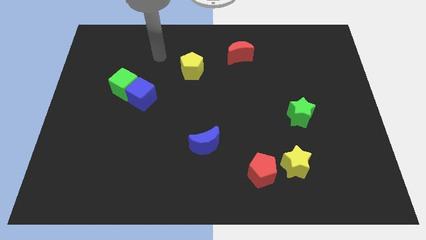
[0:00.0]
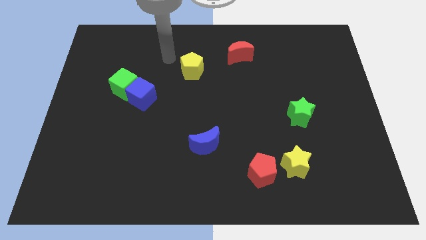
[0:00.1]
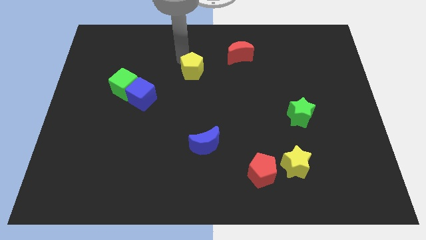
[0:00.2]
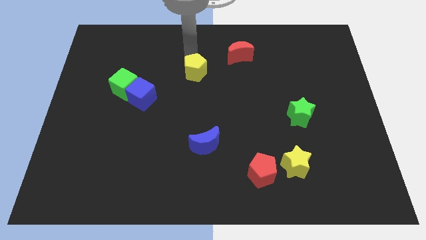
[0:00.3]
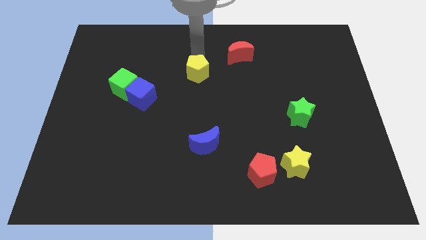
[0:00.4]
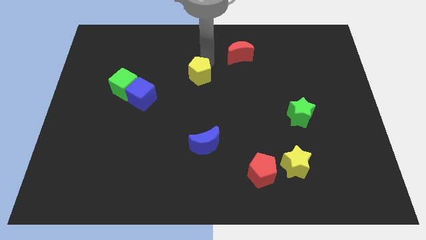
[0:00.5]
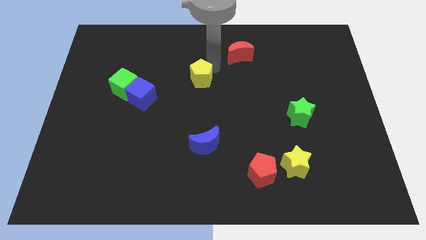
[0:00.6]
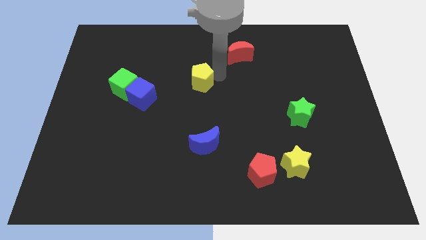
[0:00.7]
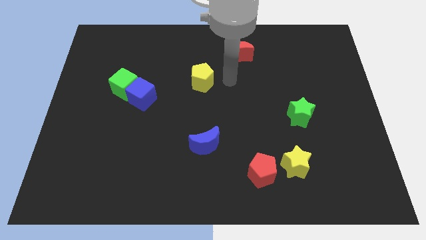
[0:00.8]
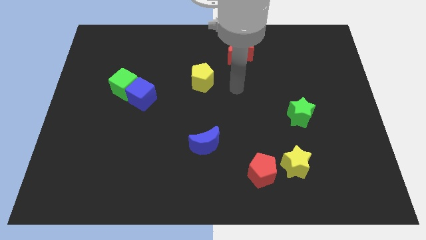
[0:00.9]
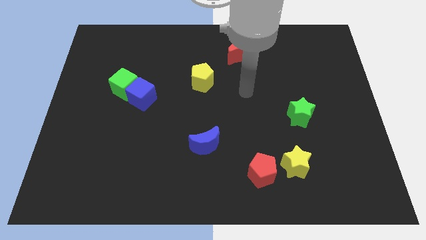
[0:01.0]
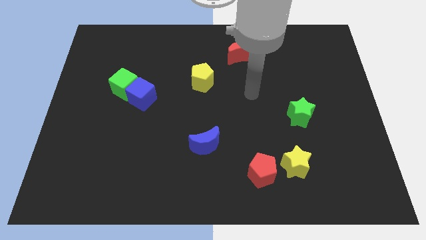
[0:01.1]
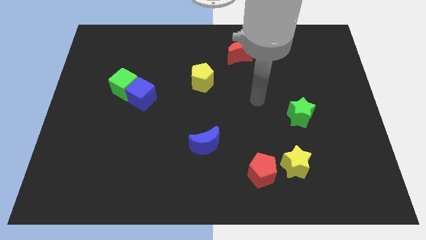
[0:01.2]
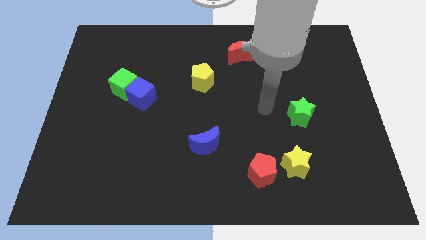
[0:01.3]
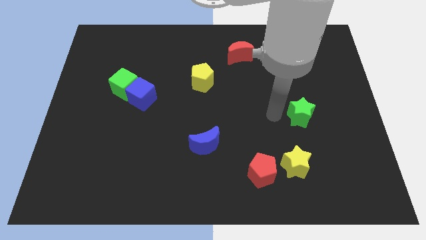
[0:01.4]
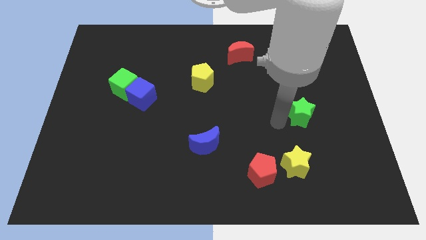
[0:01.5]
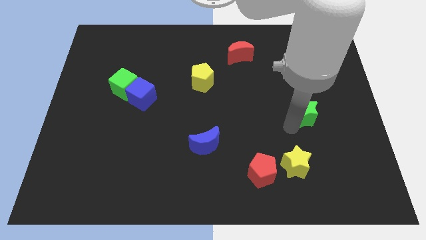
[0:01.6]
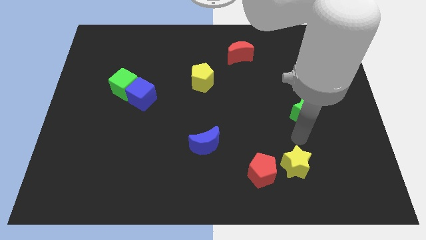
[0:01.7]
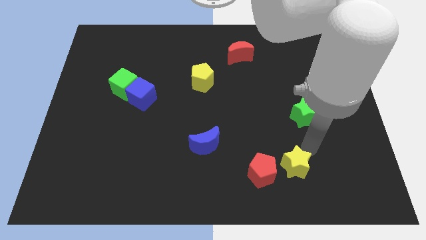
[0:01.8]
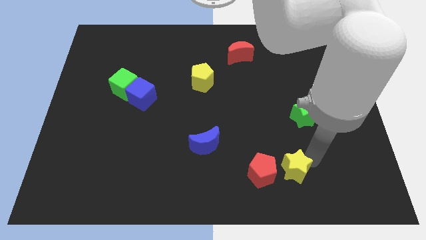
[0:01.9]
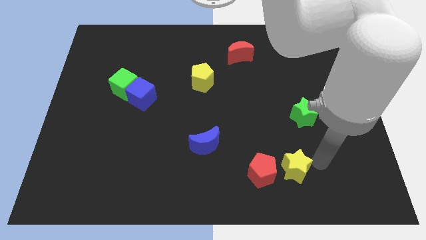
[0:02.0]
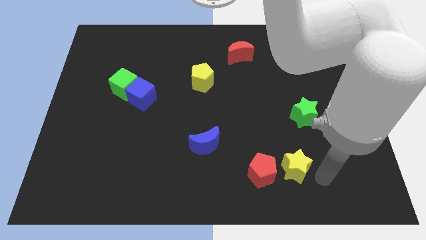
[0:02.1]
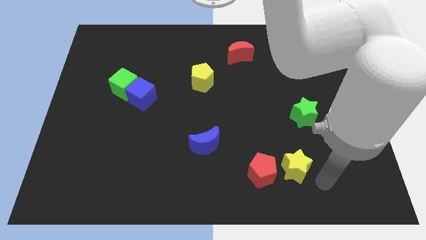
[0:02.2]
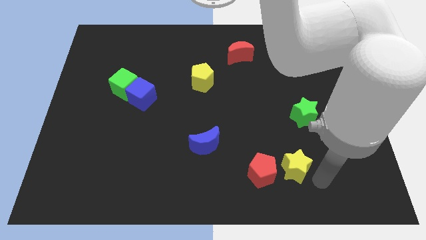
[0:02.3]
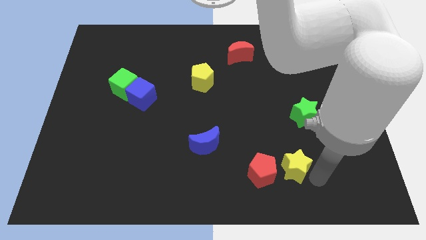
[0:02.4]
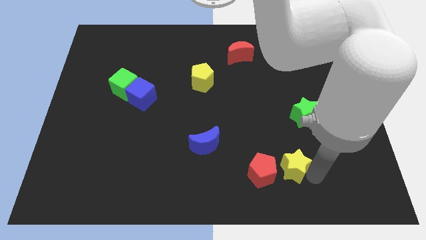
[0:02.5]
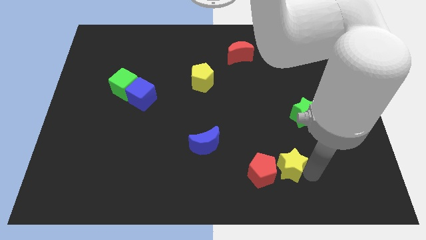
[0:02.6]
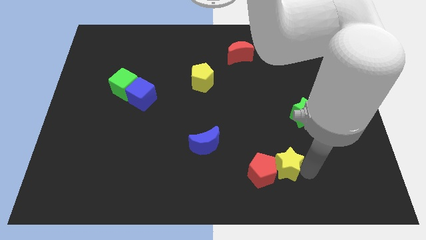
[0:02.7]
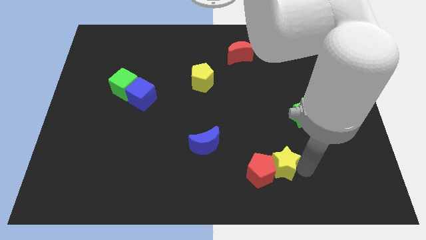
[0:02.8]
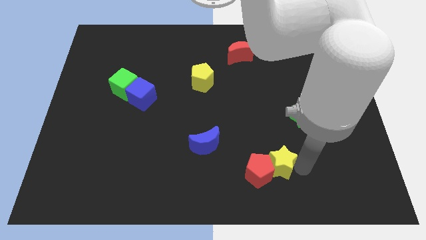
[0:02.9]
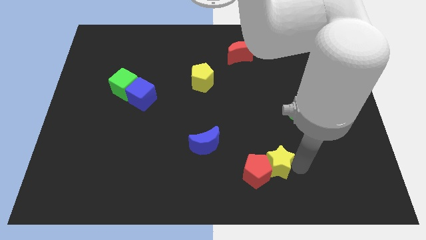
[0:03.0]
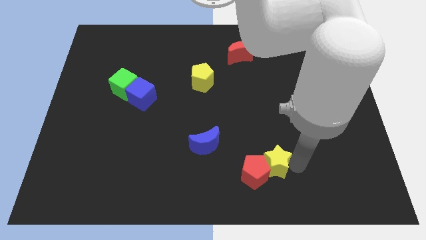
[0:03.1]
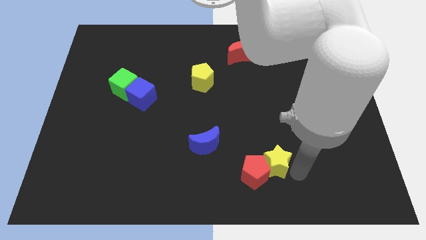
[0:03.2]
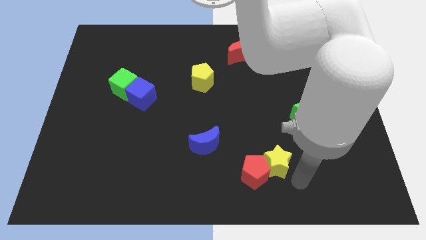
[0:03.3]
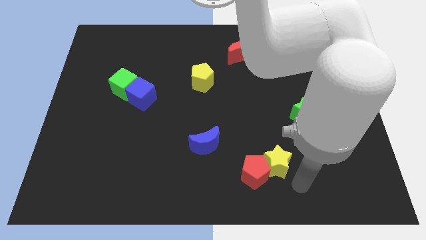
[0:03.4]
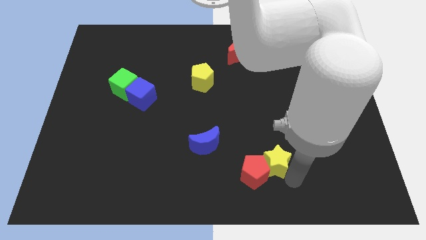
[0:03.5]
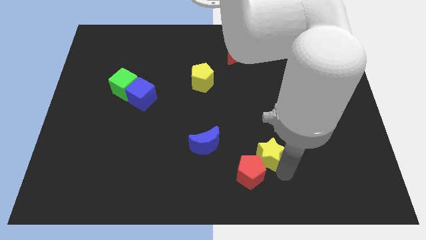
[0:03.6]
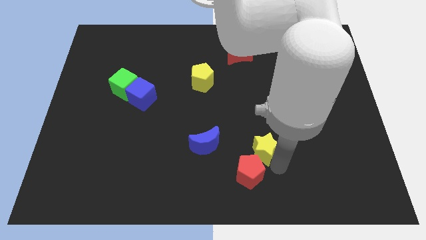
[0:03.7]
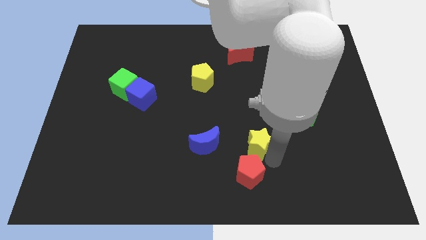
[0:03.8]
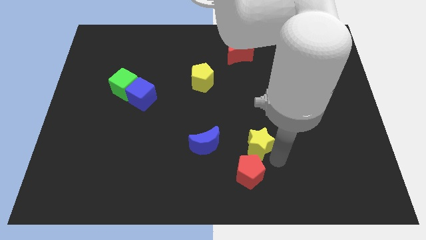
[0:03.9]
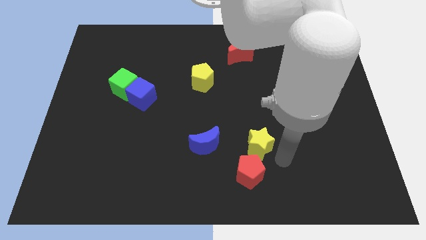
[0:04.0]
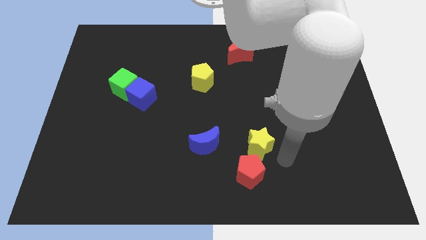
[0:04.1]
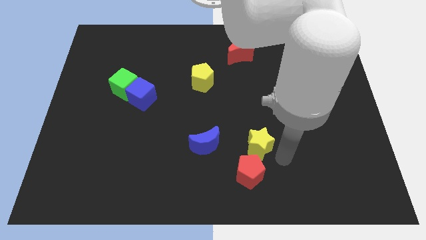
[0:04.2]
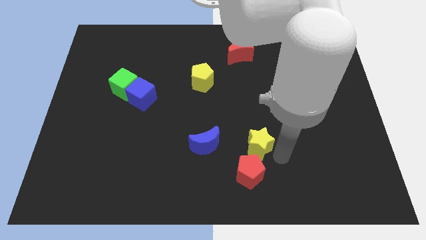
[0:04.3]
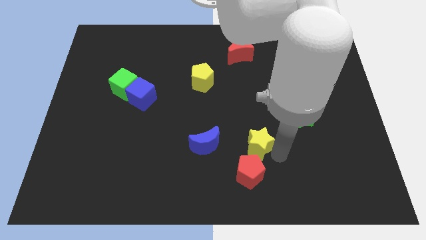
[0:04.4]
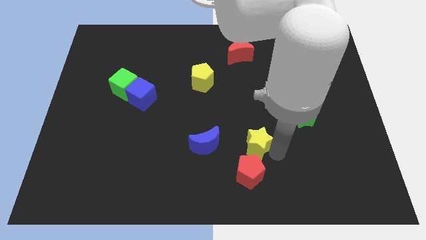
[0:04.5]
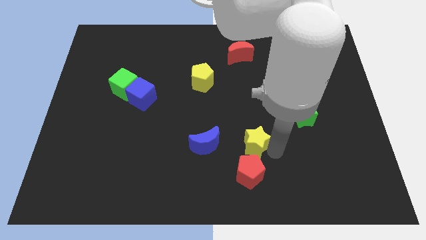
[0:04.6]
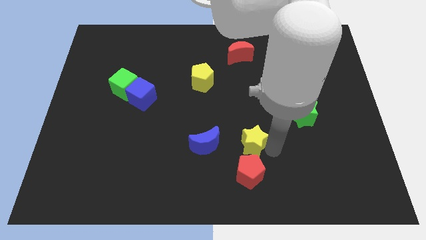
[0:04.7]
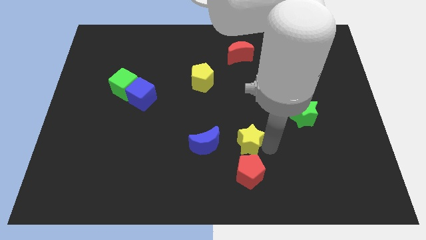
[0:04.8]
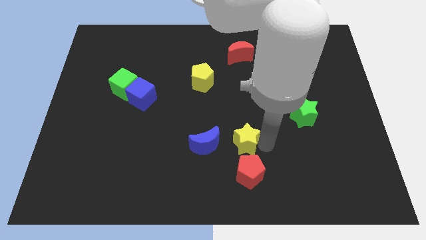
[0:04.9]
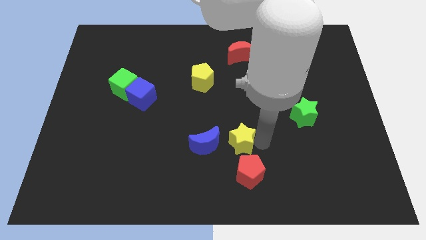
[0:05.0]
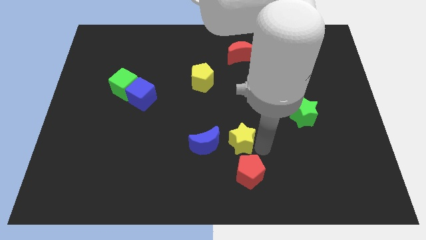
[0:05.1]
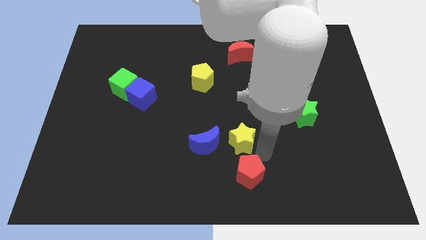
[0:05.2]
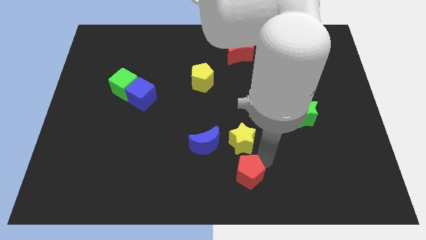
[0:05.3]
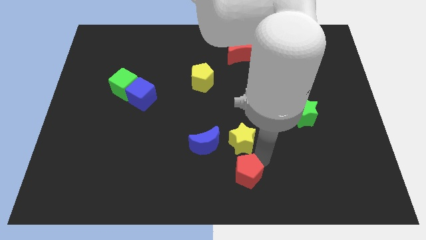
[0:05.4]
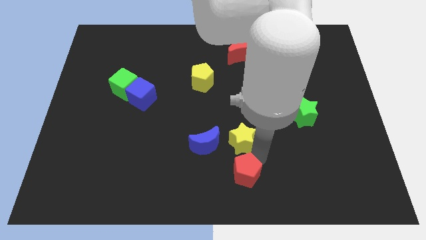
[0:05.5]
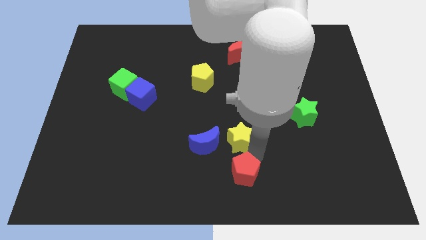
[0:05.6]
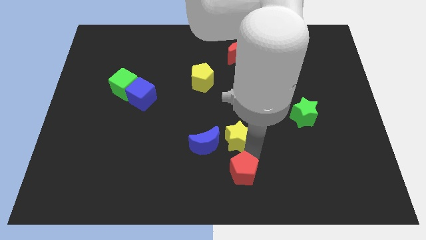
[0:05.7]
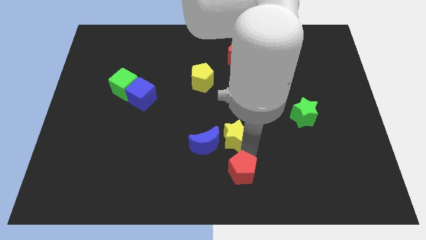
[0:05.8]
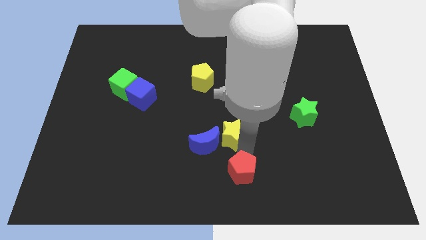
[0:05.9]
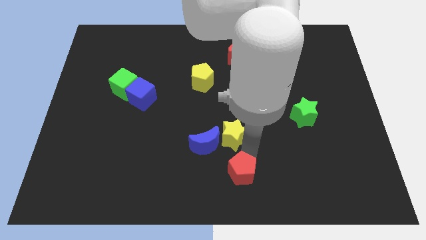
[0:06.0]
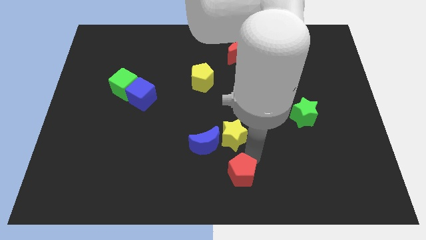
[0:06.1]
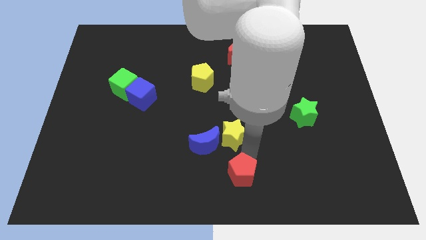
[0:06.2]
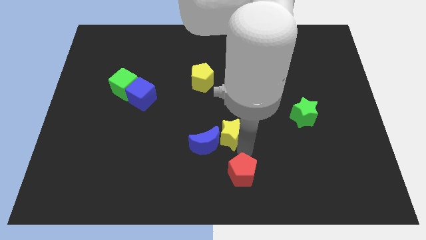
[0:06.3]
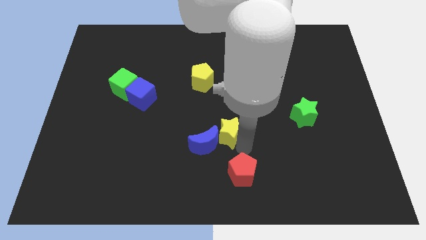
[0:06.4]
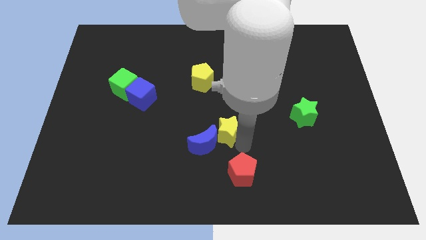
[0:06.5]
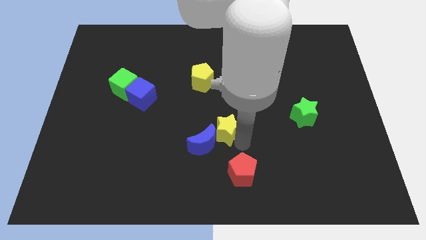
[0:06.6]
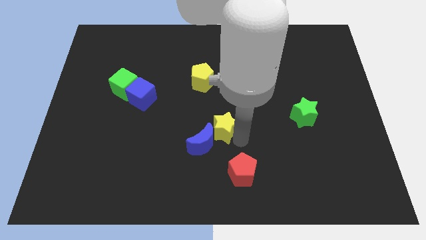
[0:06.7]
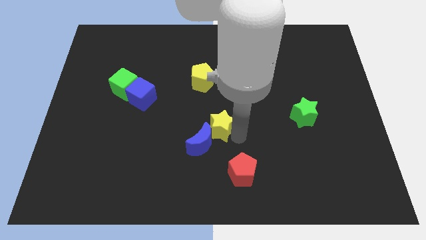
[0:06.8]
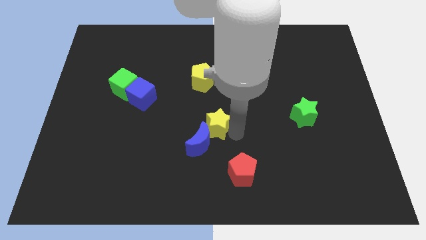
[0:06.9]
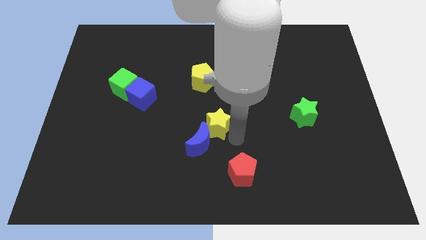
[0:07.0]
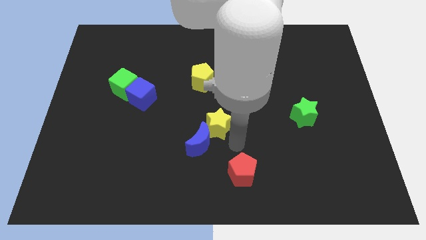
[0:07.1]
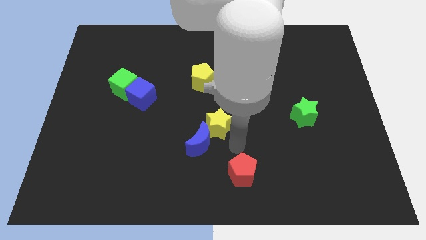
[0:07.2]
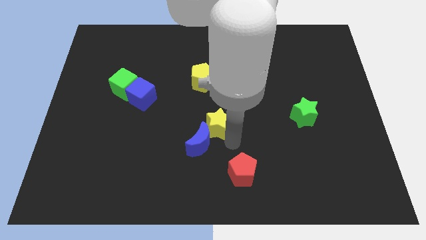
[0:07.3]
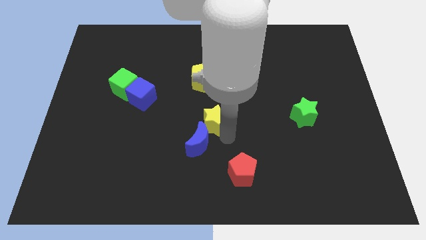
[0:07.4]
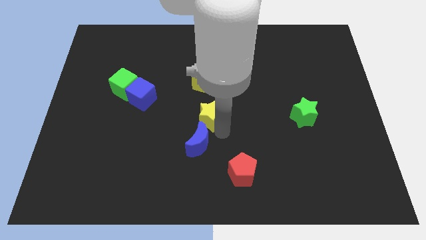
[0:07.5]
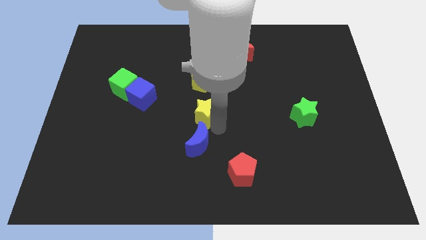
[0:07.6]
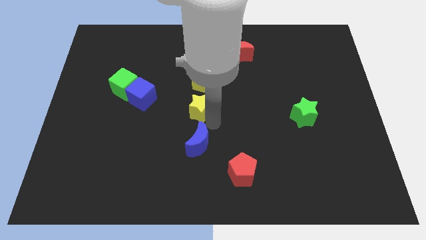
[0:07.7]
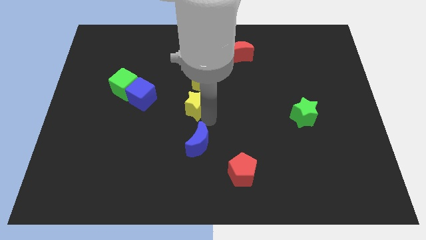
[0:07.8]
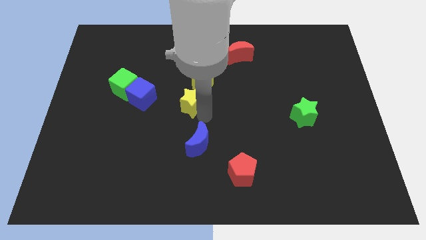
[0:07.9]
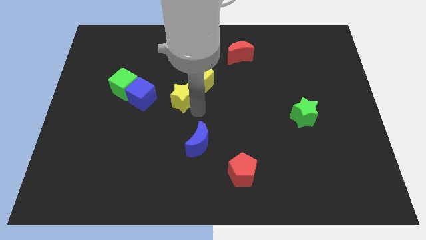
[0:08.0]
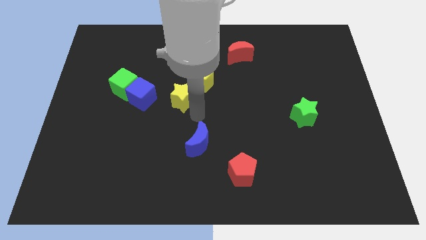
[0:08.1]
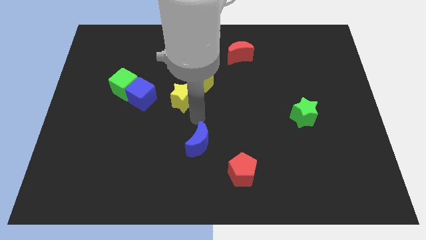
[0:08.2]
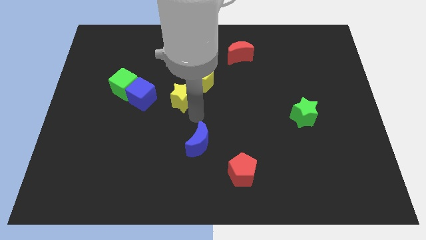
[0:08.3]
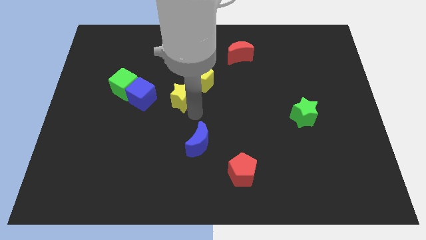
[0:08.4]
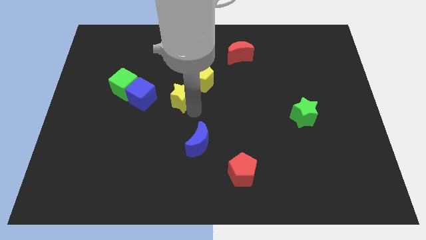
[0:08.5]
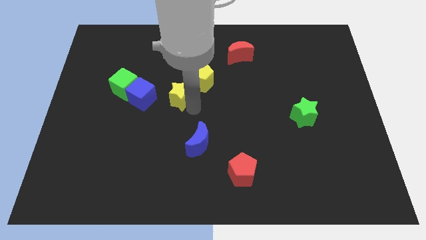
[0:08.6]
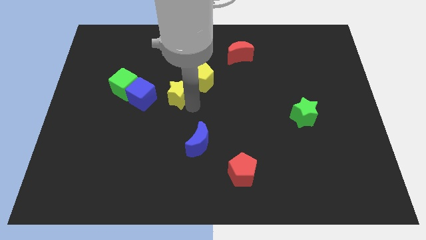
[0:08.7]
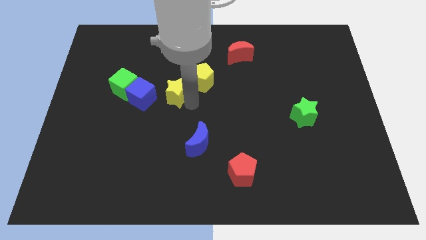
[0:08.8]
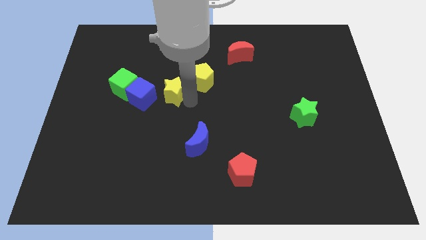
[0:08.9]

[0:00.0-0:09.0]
put the yellow star diagonally up and to the right of the blue cube
